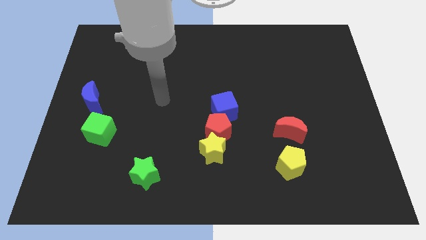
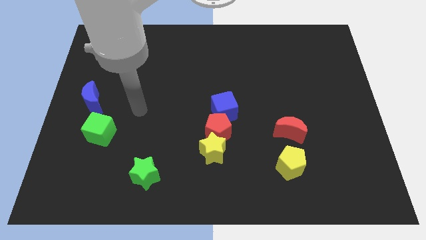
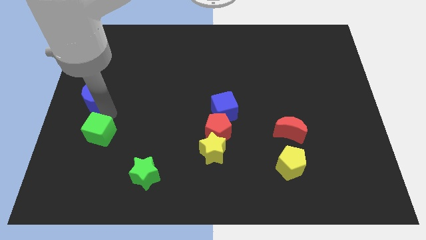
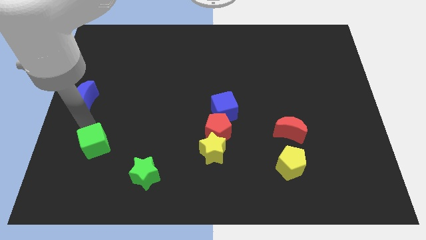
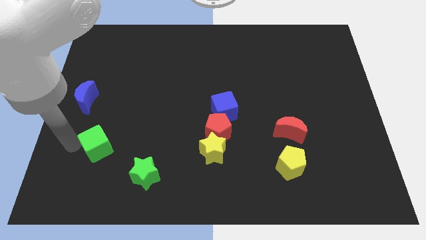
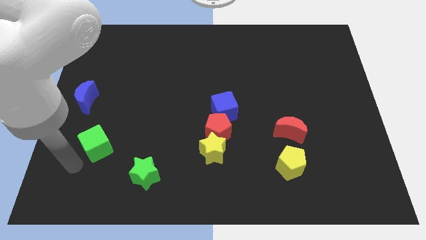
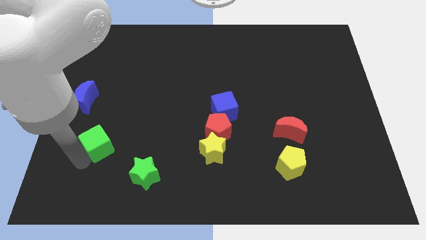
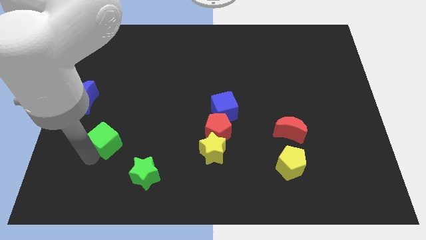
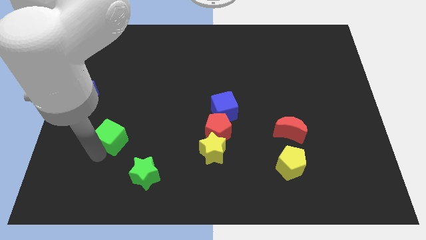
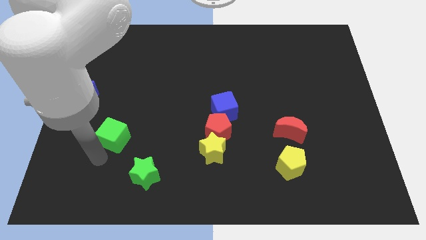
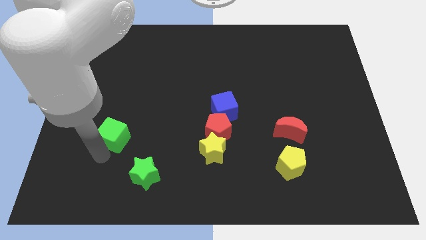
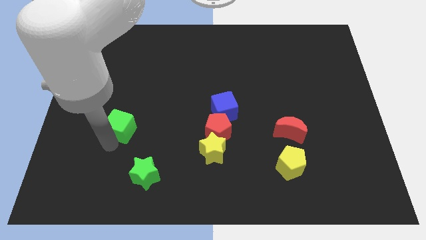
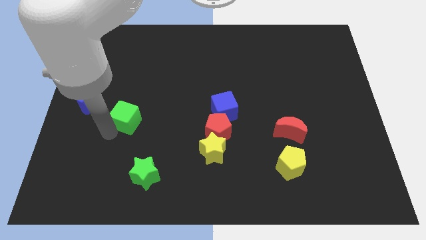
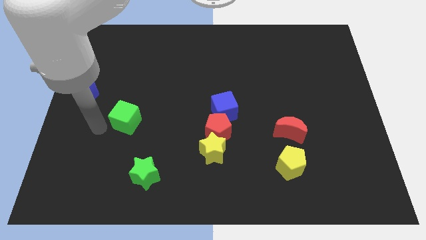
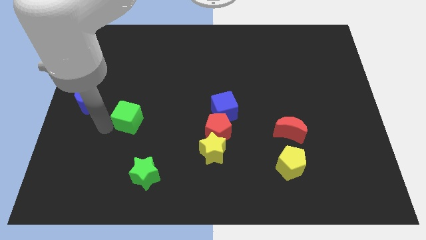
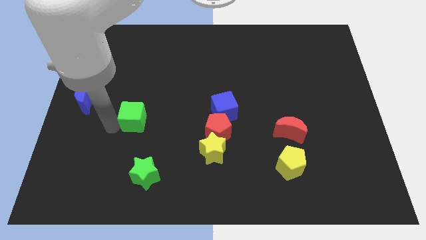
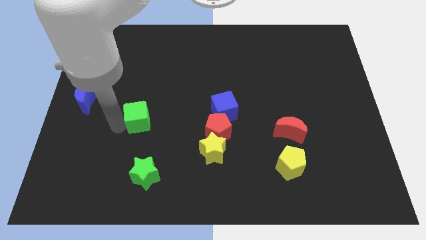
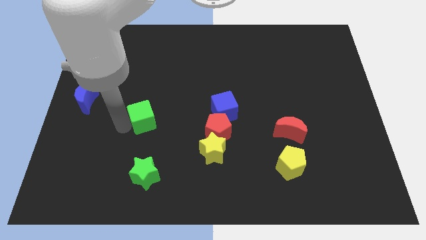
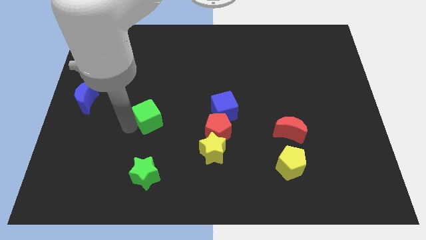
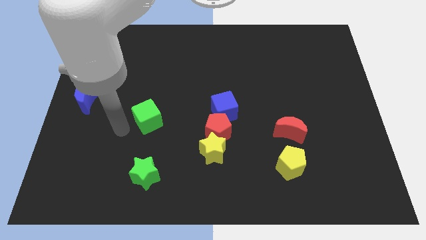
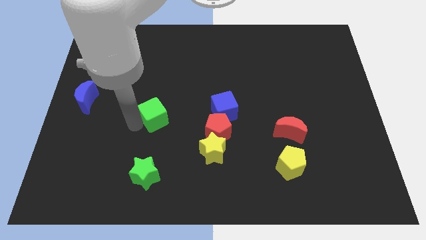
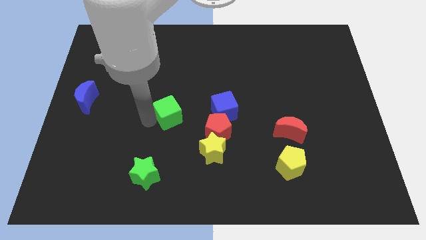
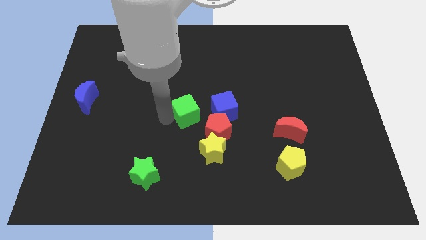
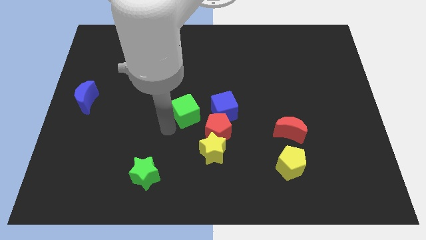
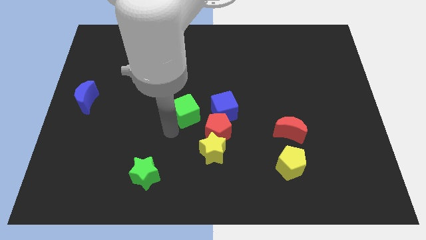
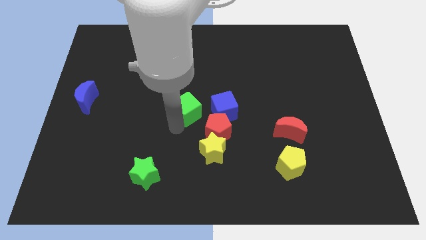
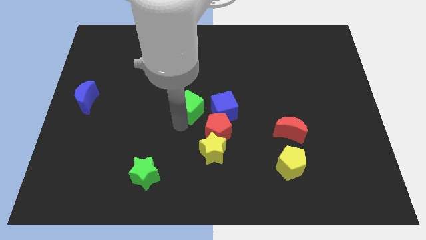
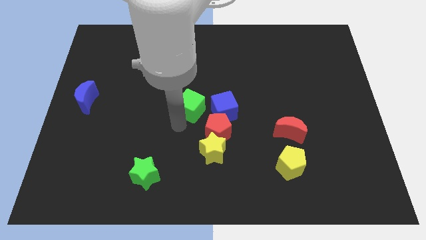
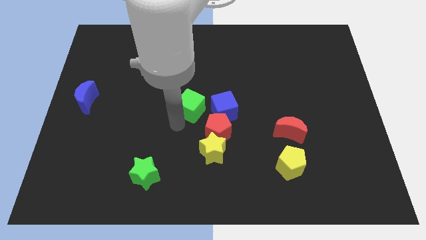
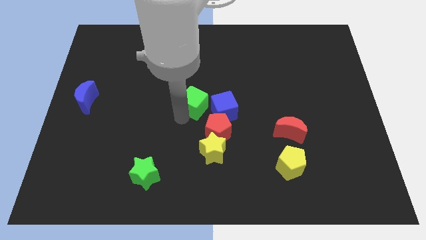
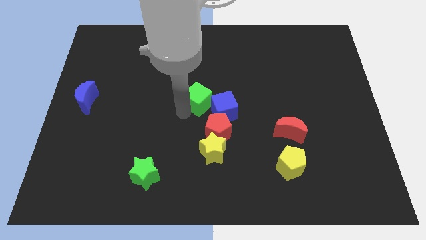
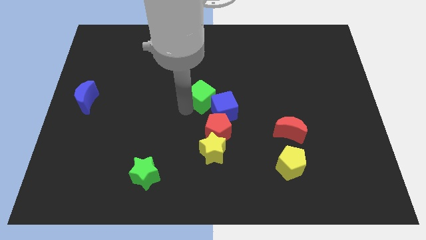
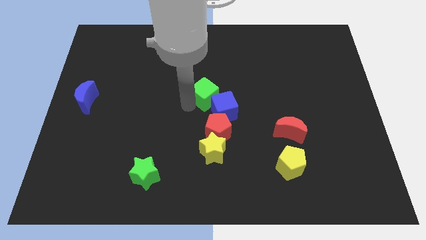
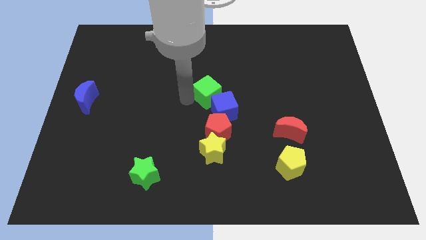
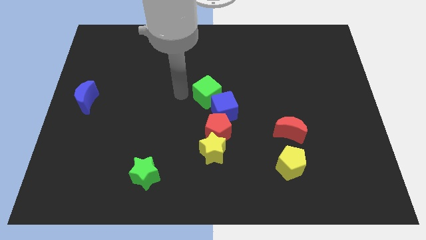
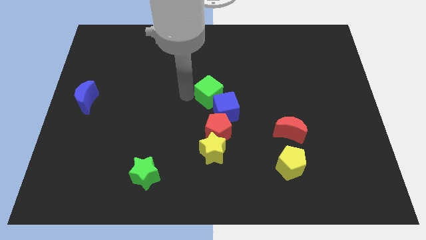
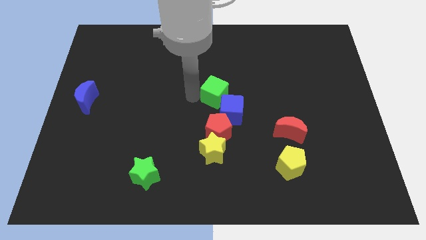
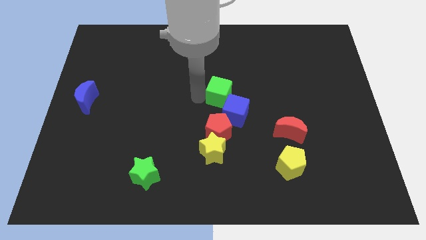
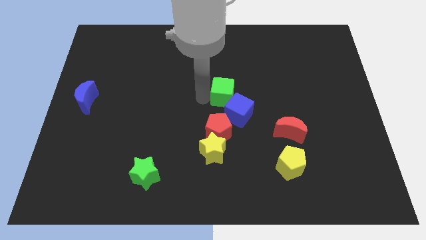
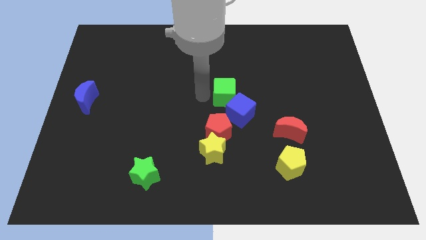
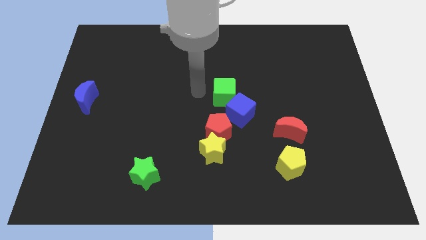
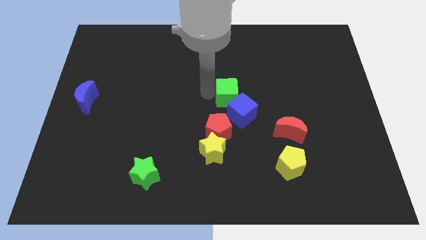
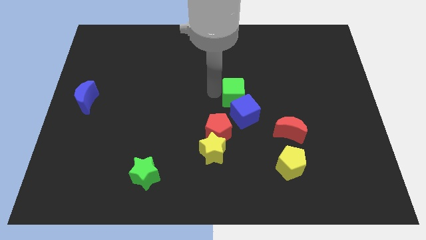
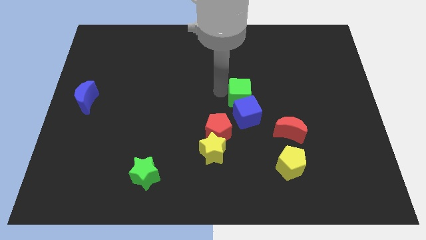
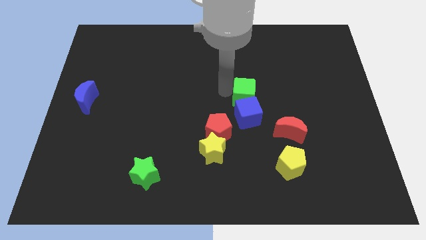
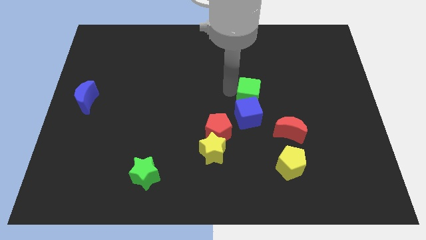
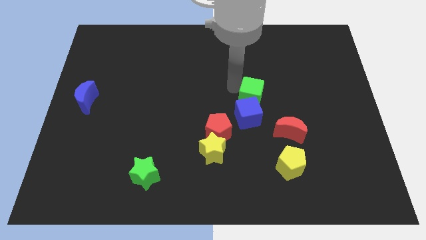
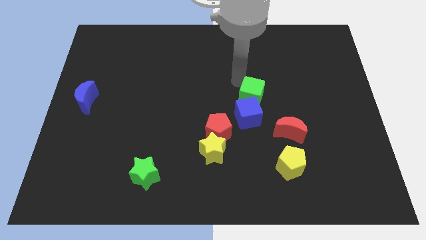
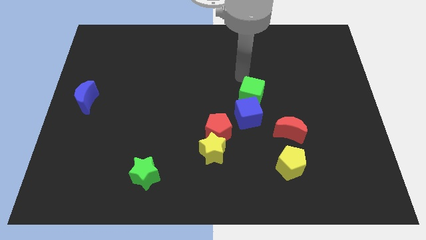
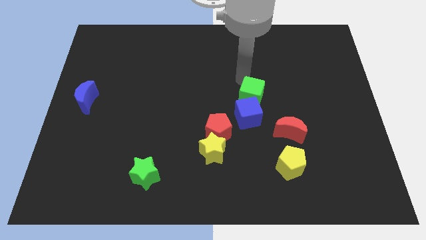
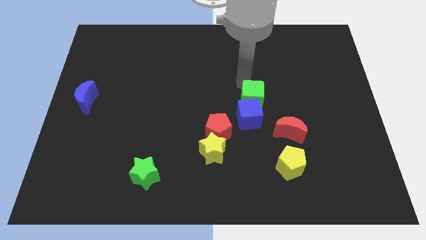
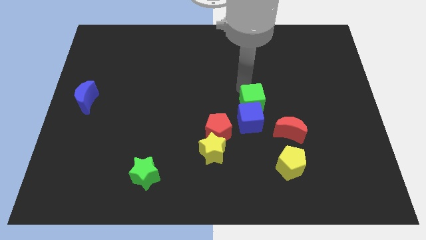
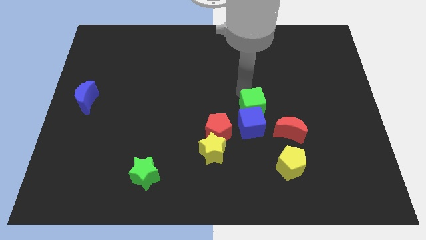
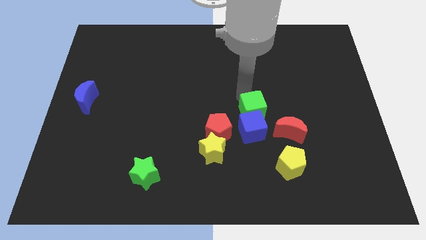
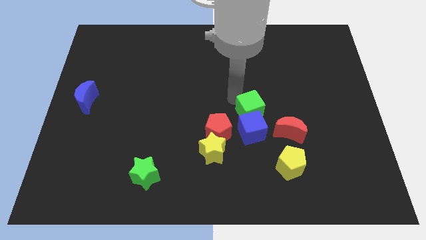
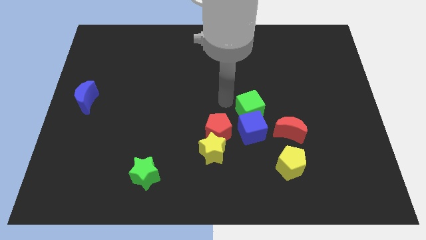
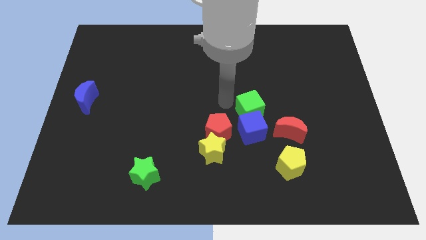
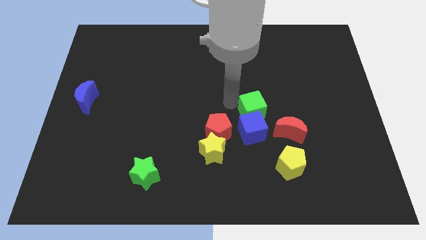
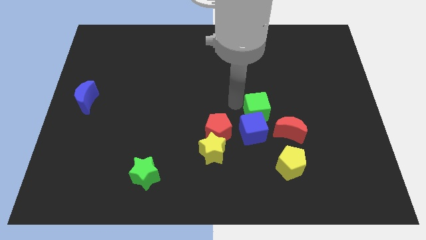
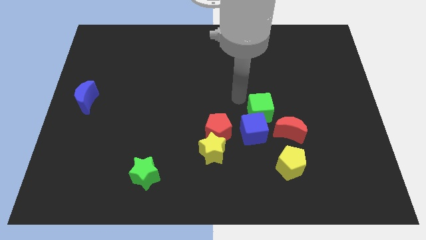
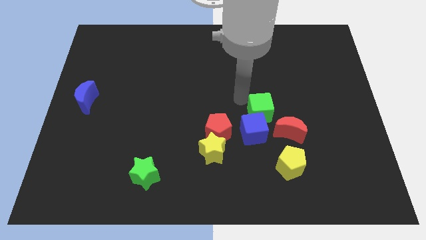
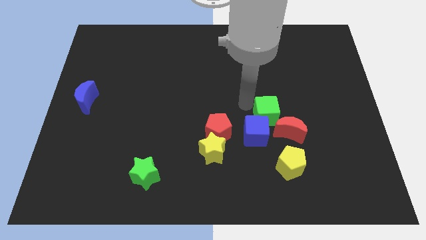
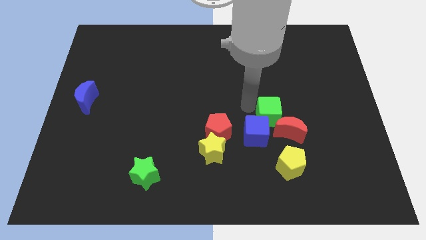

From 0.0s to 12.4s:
move the green cube towards the red moon

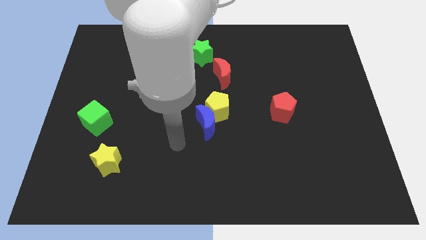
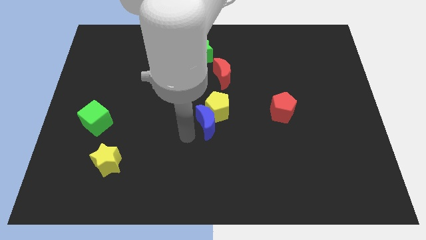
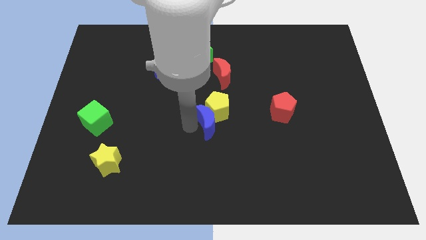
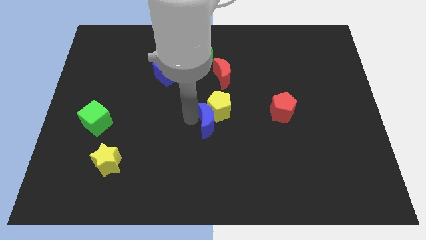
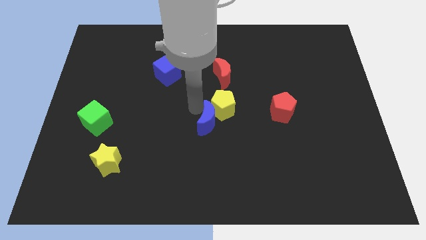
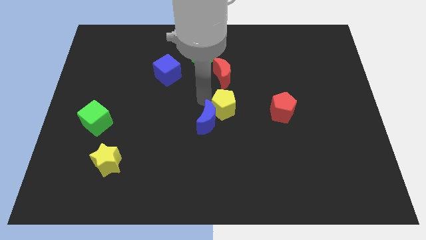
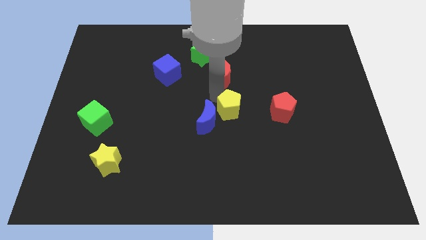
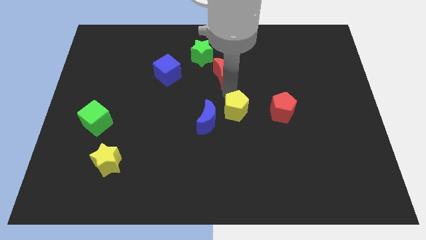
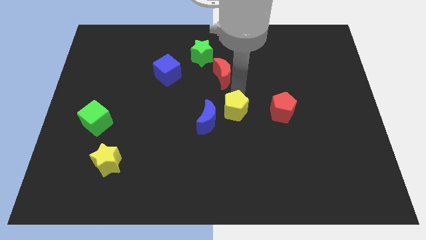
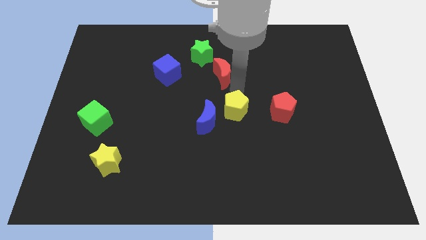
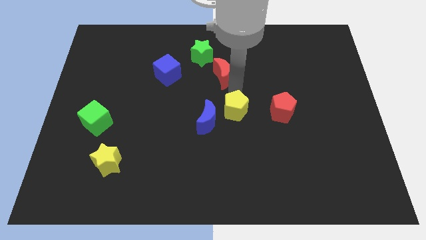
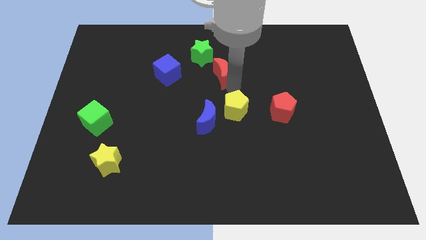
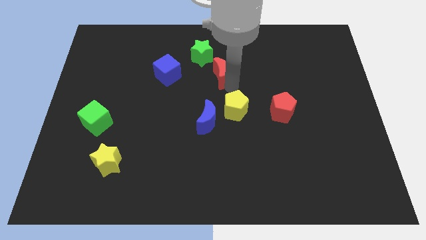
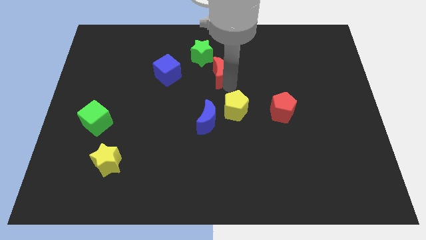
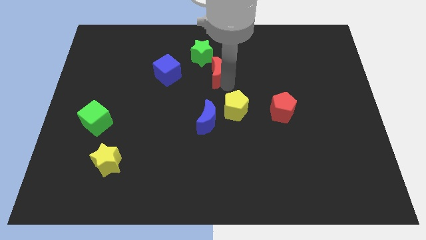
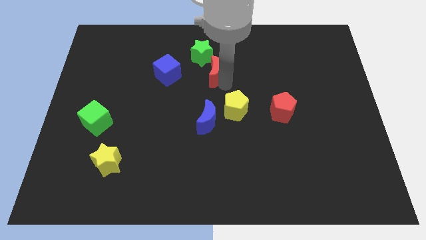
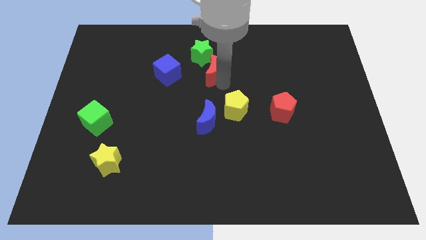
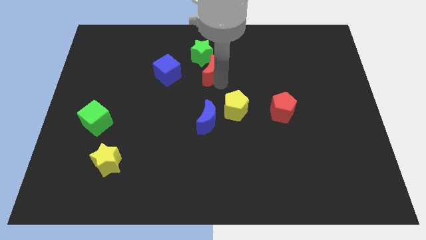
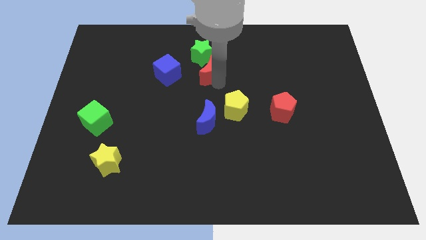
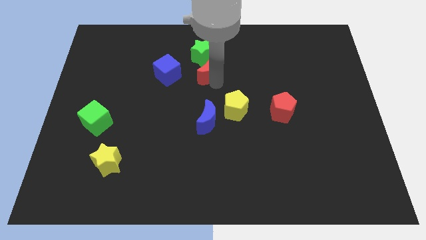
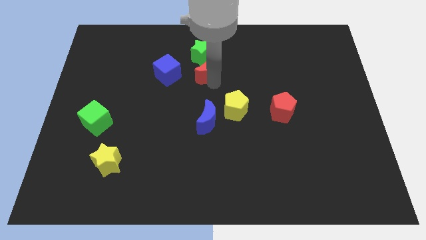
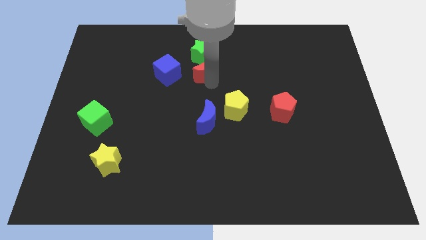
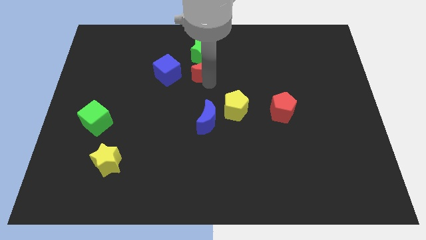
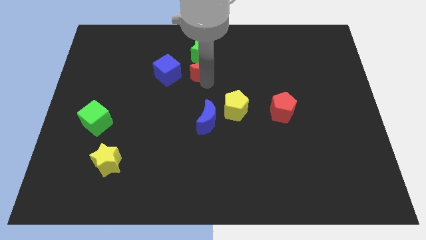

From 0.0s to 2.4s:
push the red moon close to the green star
